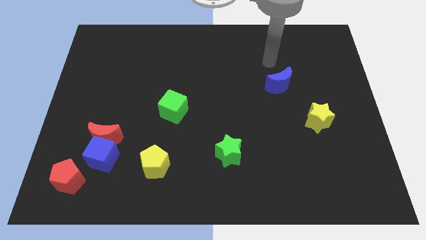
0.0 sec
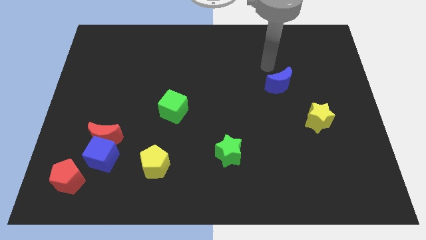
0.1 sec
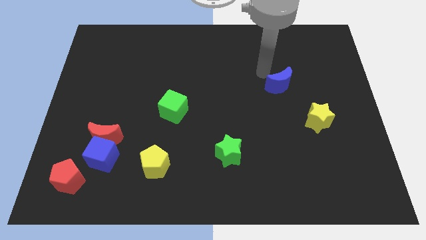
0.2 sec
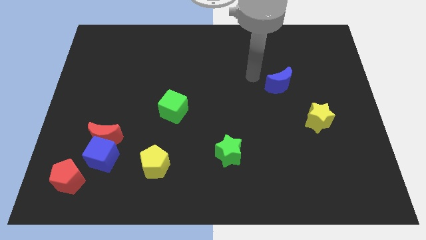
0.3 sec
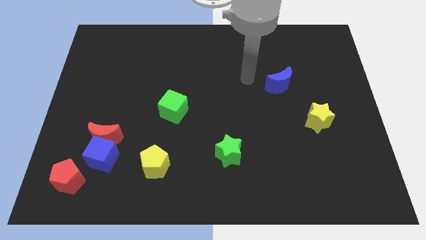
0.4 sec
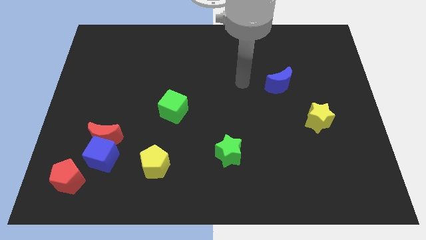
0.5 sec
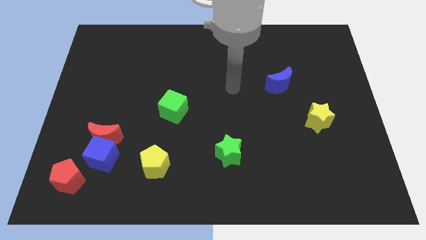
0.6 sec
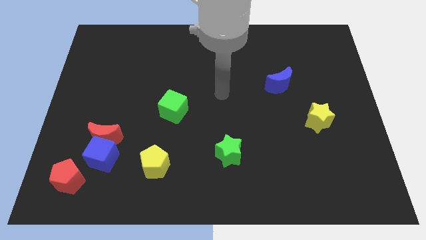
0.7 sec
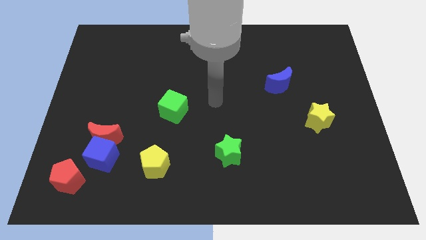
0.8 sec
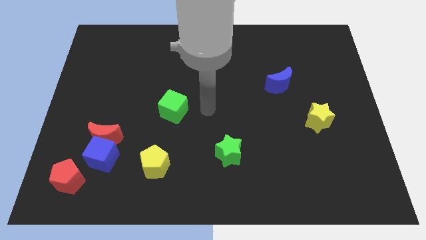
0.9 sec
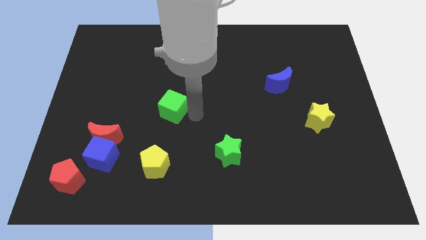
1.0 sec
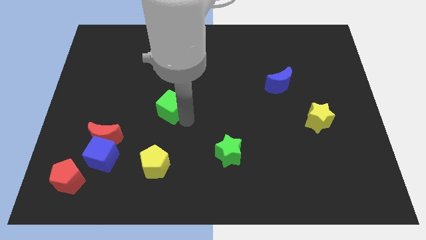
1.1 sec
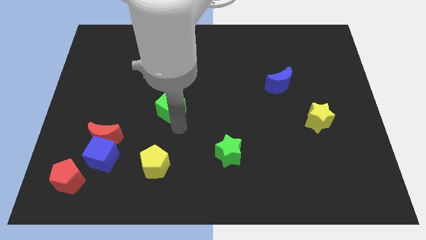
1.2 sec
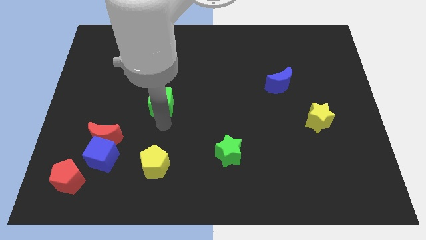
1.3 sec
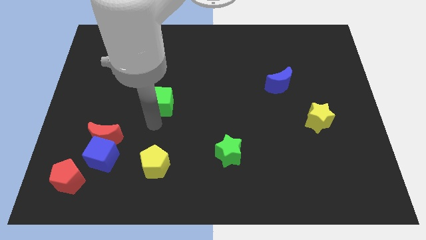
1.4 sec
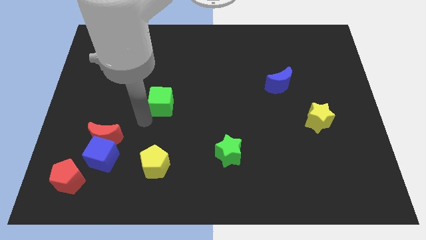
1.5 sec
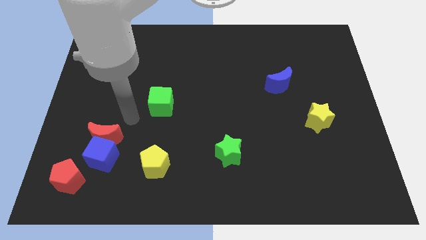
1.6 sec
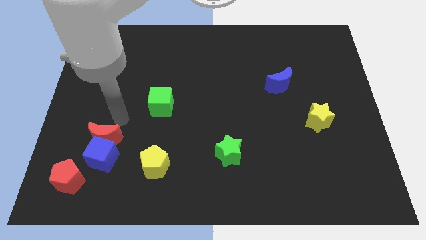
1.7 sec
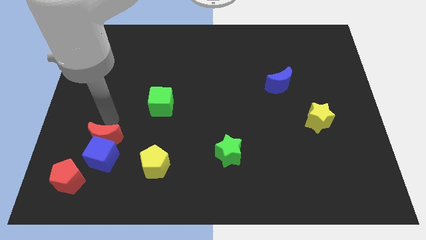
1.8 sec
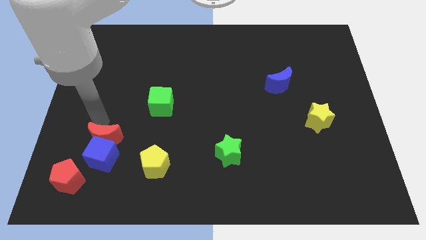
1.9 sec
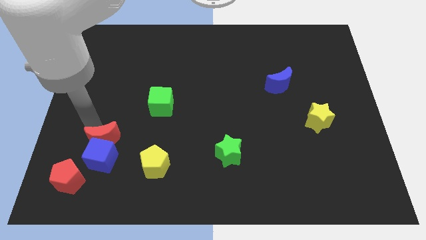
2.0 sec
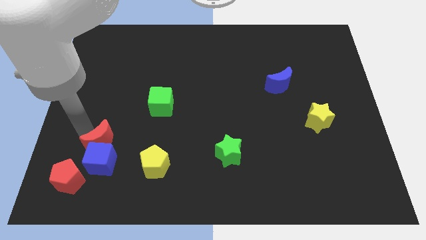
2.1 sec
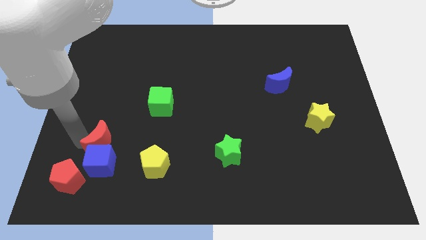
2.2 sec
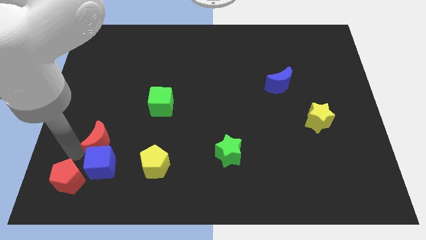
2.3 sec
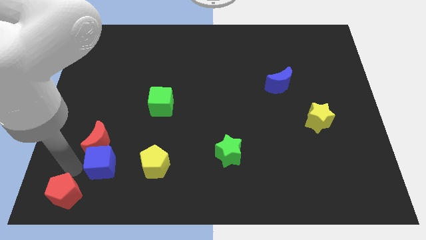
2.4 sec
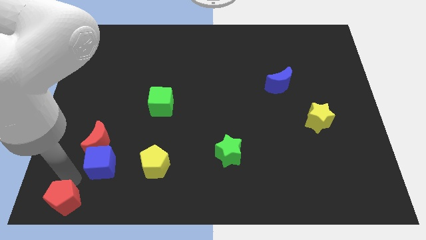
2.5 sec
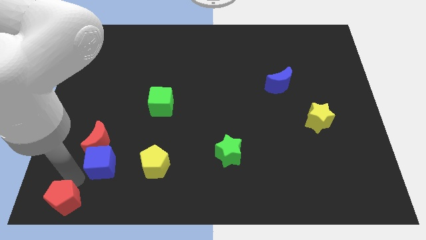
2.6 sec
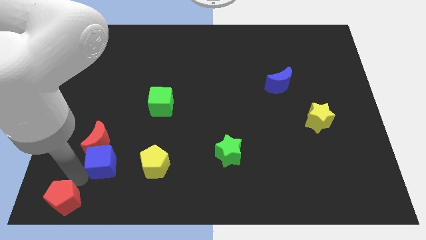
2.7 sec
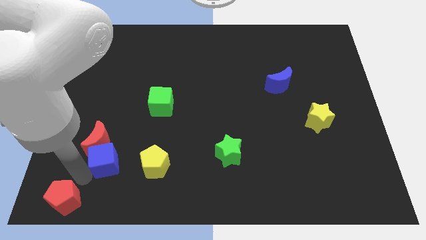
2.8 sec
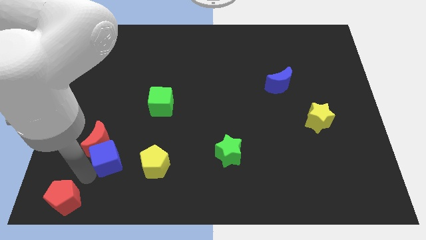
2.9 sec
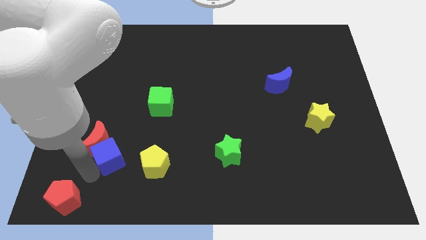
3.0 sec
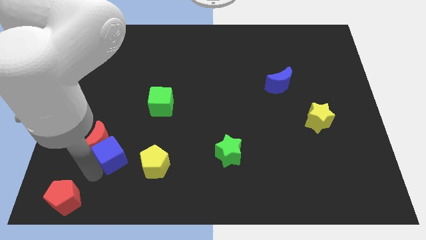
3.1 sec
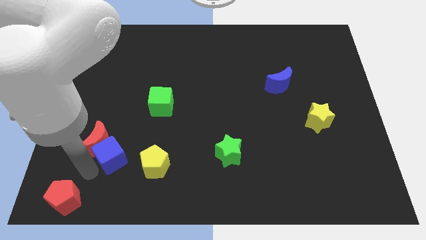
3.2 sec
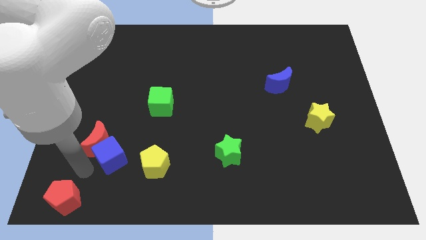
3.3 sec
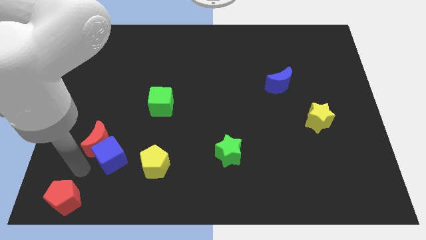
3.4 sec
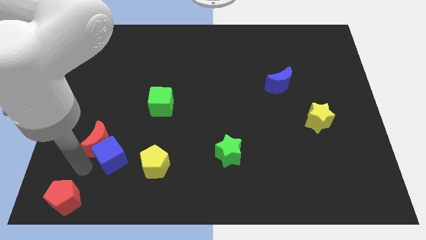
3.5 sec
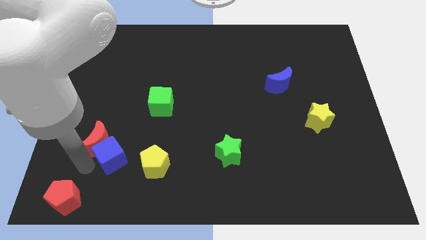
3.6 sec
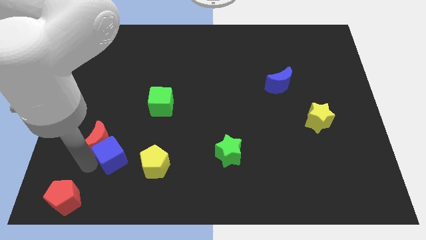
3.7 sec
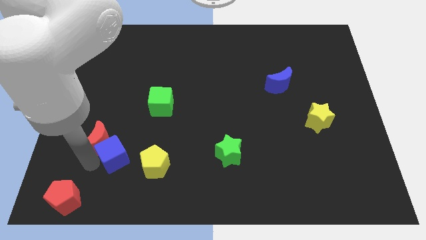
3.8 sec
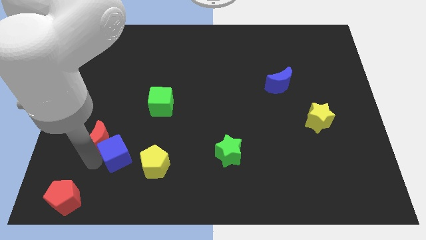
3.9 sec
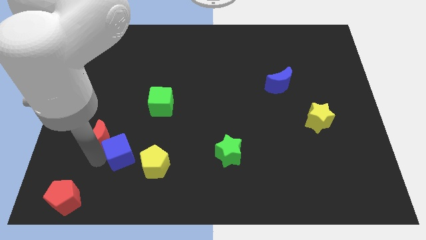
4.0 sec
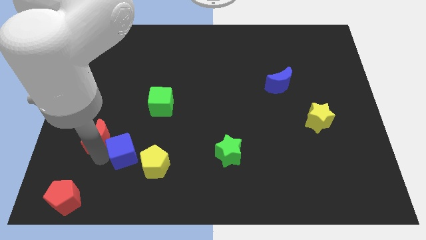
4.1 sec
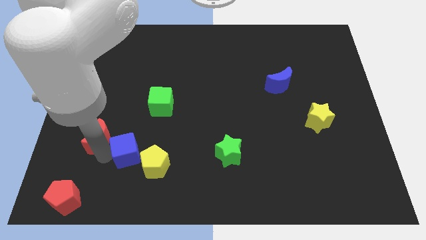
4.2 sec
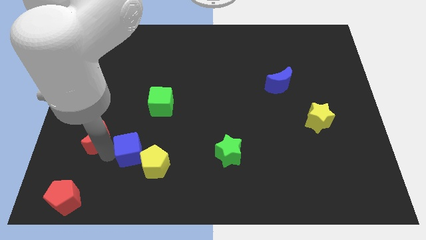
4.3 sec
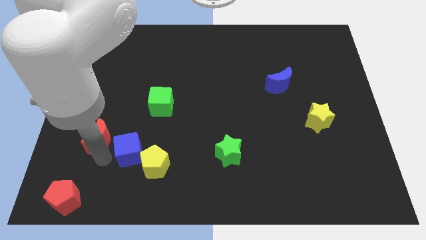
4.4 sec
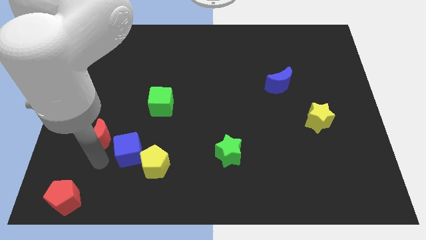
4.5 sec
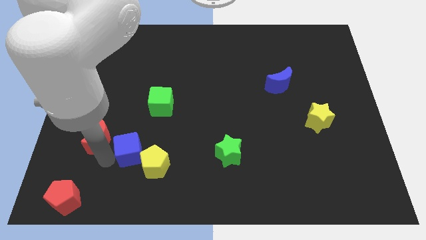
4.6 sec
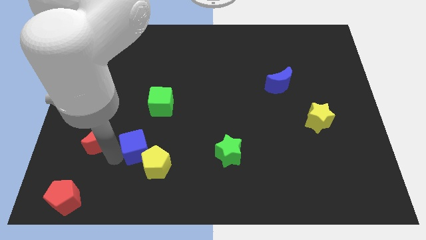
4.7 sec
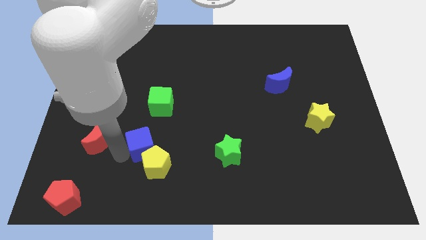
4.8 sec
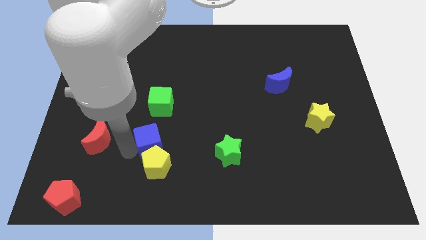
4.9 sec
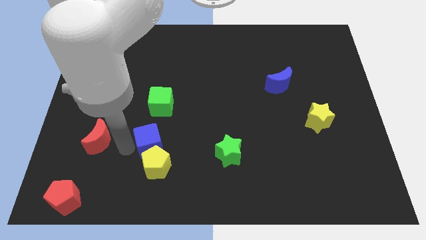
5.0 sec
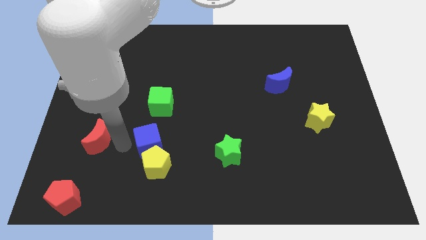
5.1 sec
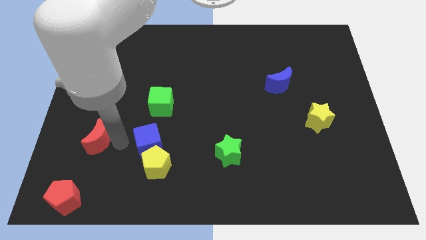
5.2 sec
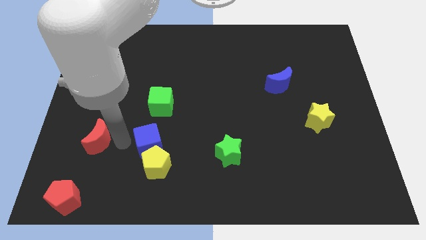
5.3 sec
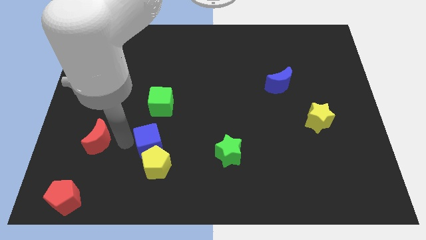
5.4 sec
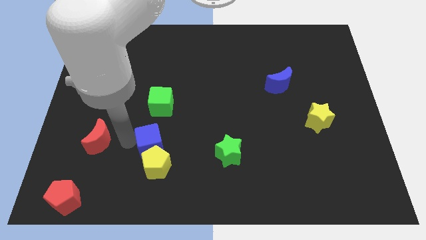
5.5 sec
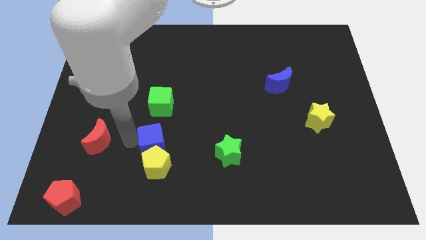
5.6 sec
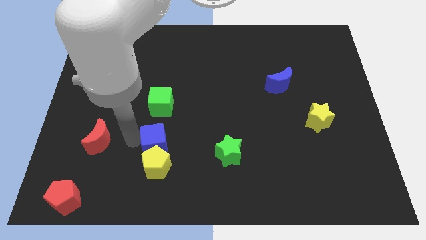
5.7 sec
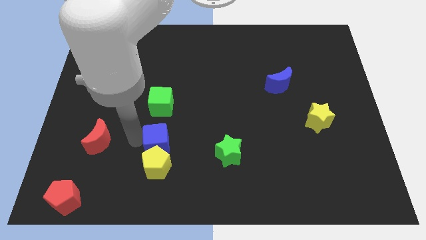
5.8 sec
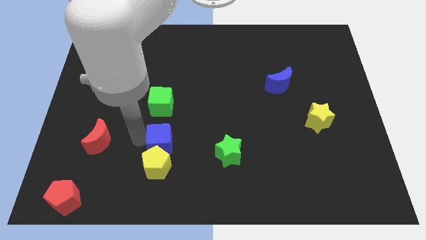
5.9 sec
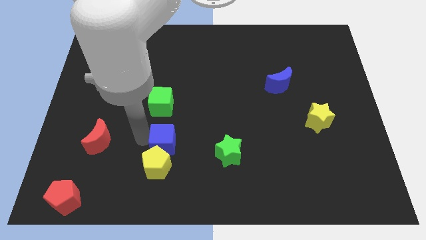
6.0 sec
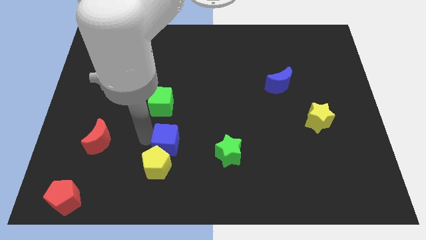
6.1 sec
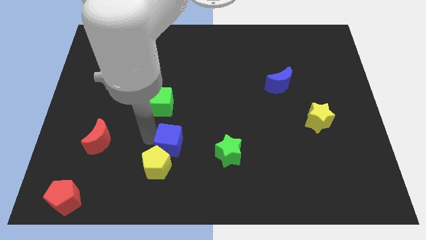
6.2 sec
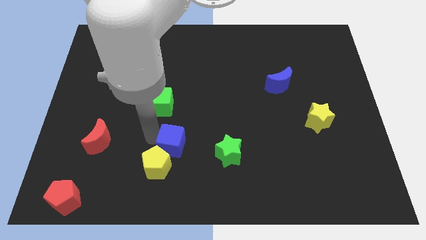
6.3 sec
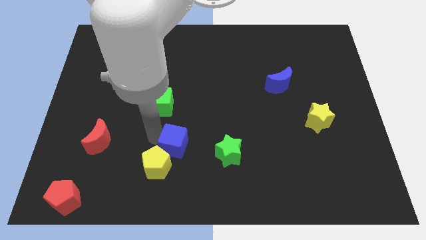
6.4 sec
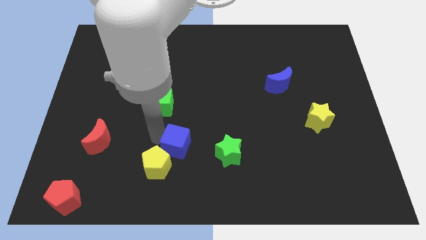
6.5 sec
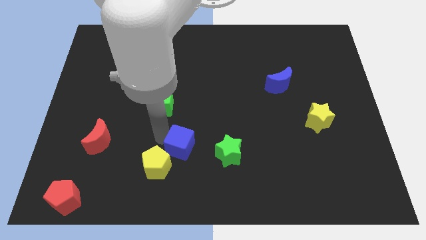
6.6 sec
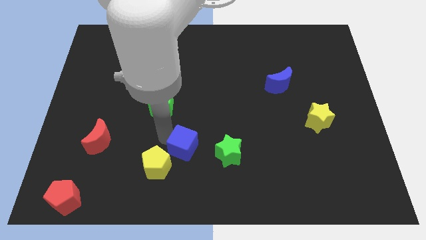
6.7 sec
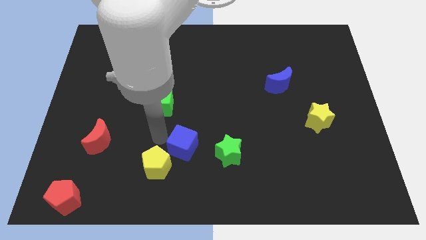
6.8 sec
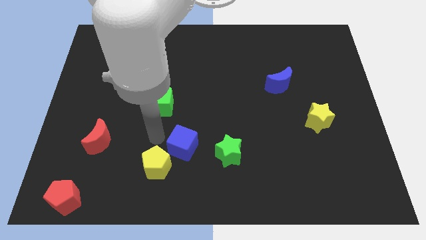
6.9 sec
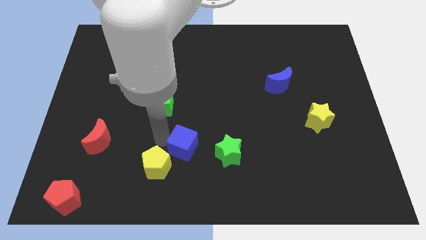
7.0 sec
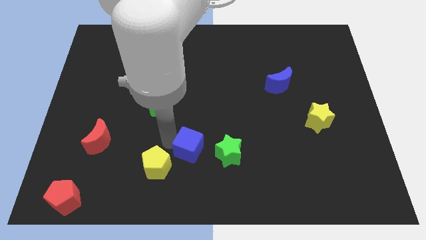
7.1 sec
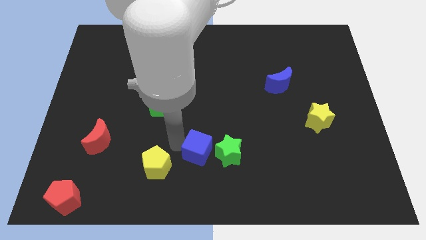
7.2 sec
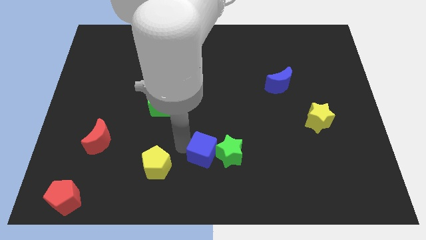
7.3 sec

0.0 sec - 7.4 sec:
push the blue cube towards the green star
